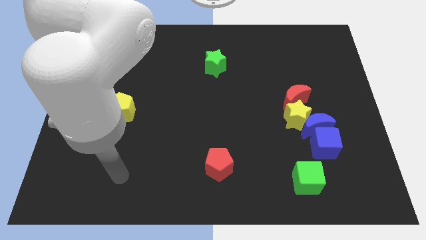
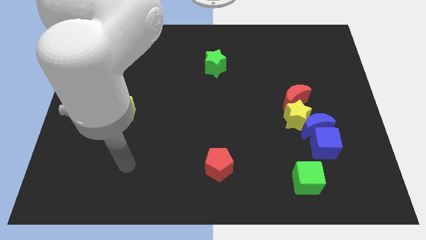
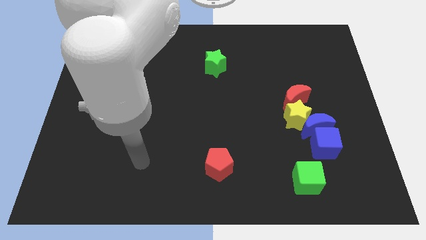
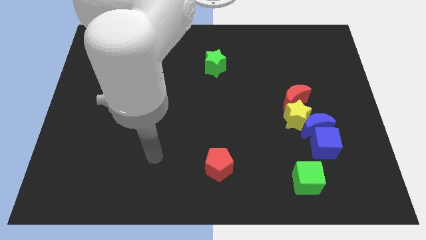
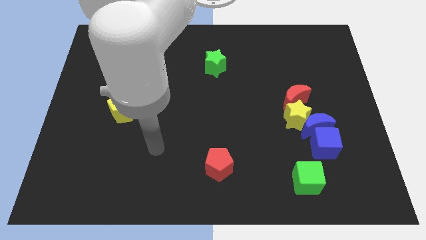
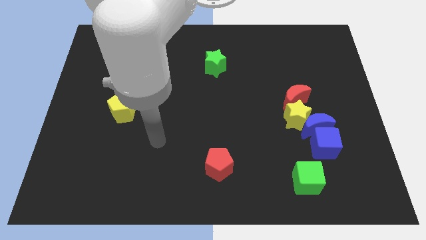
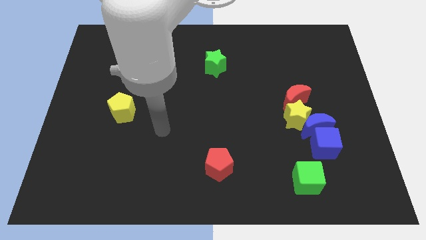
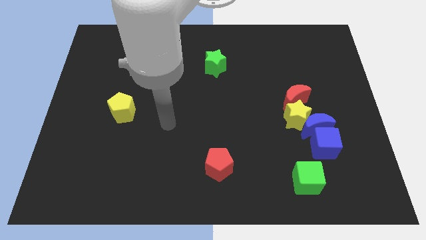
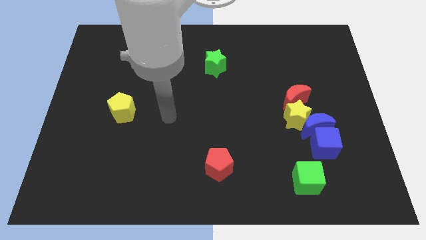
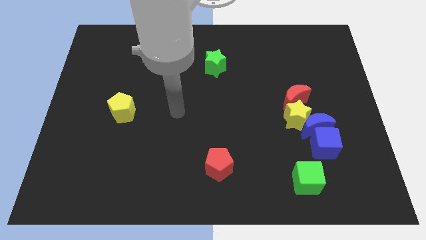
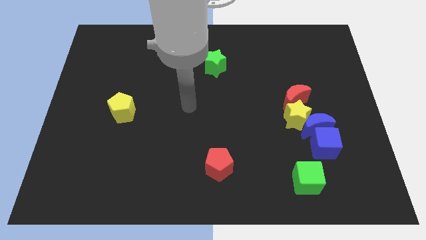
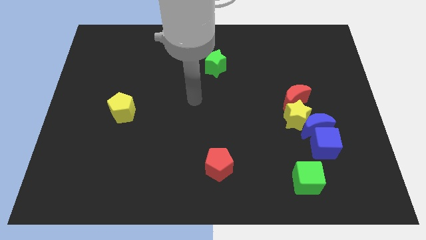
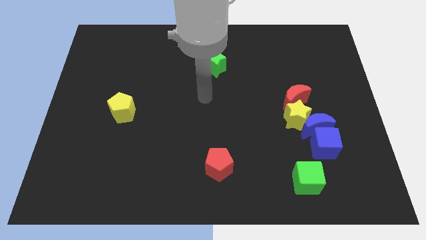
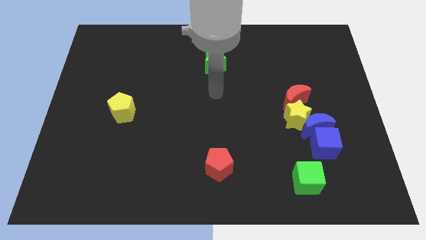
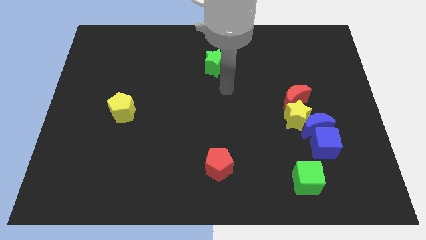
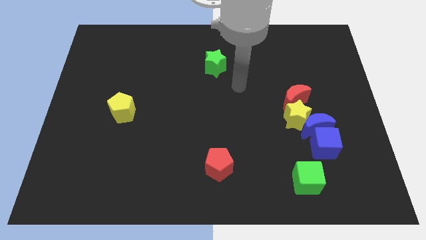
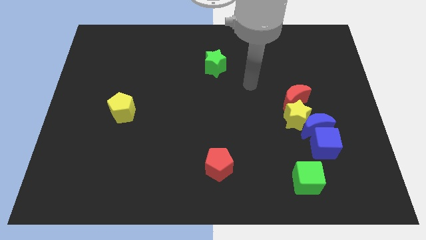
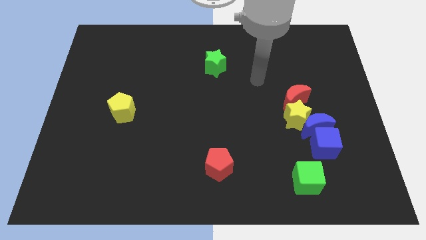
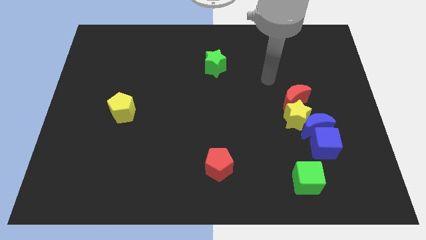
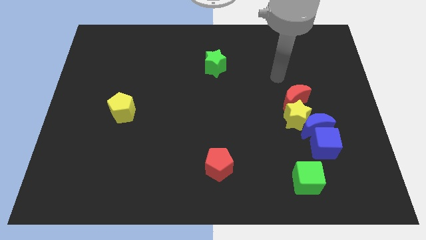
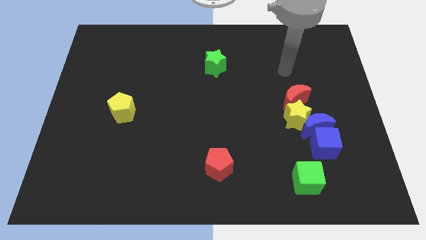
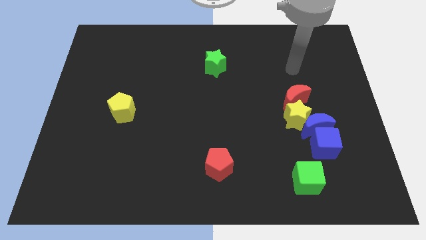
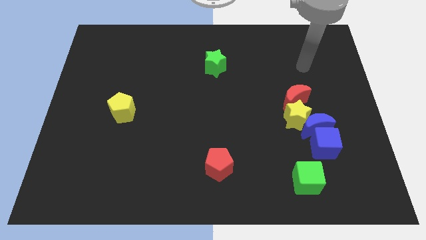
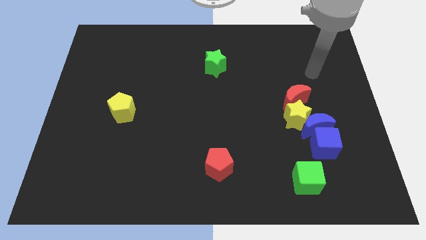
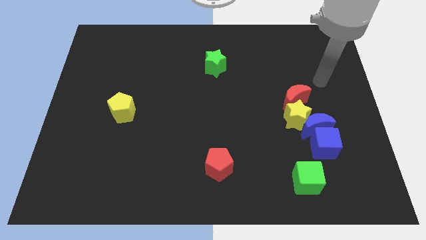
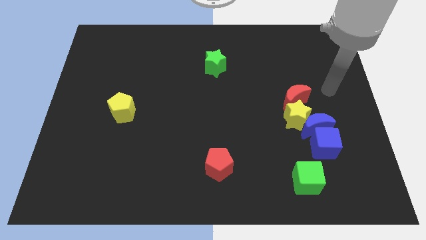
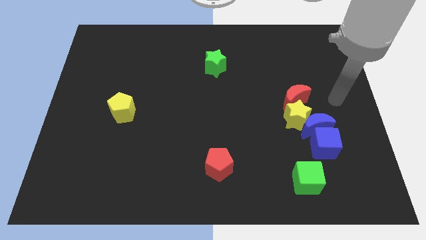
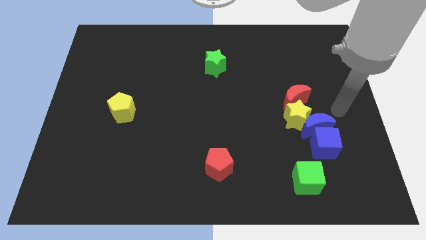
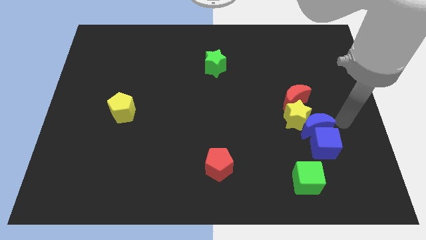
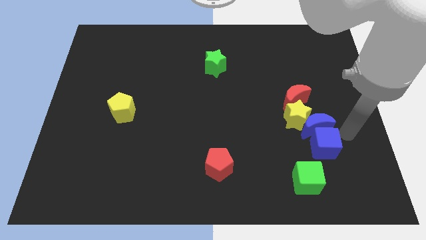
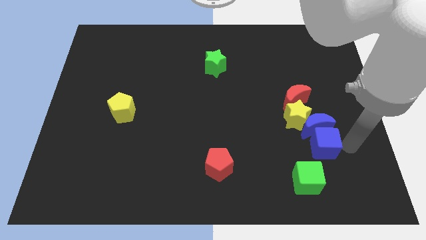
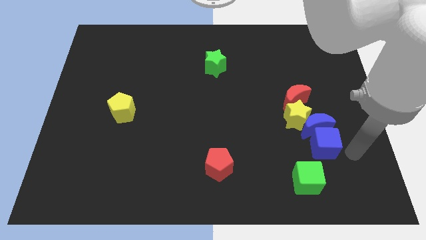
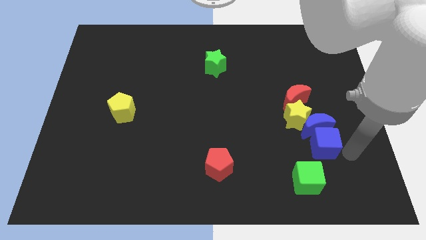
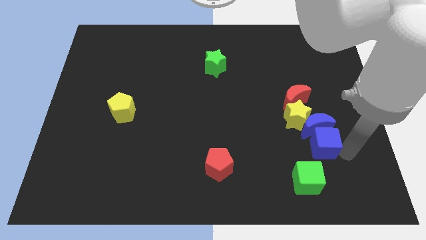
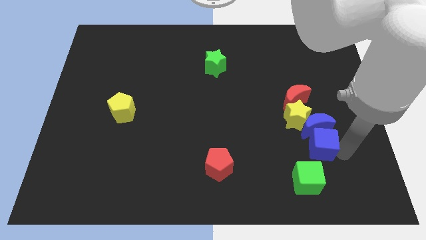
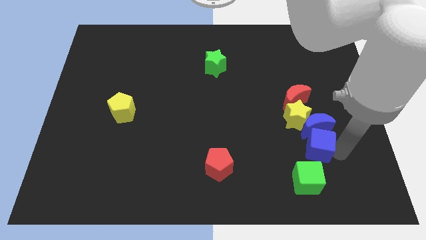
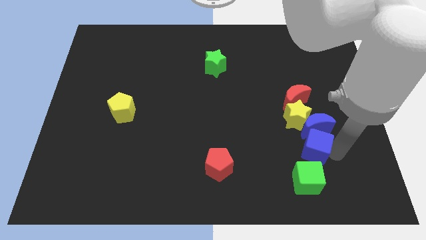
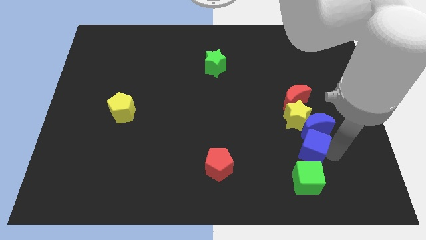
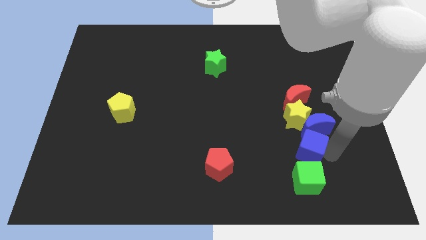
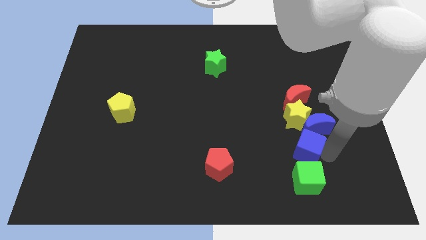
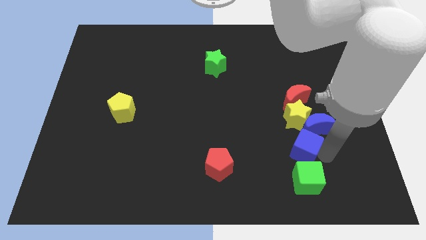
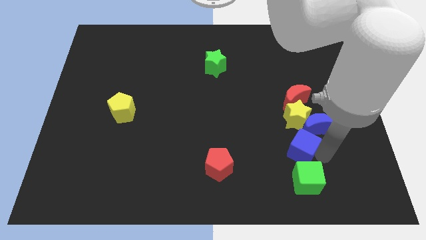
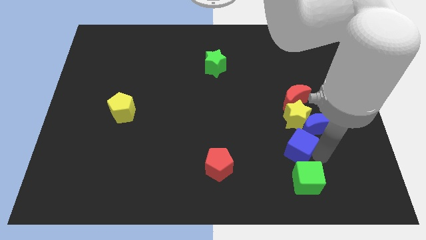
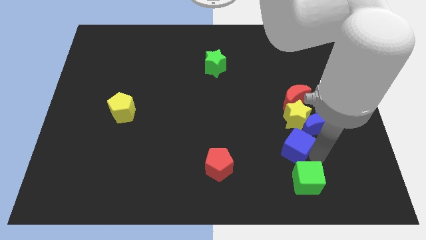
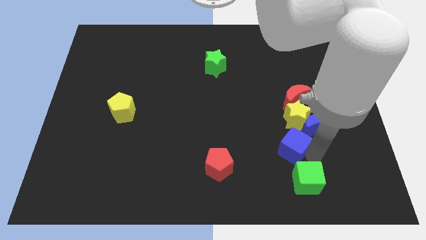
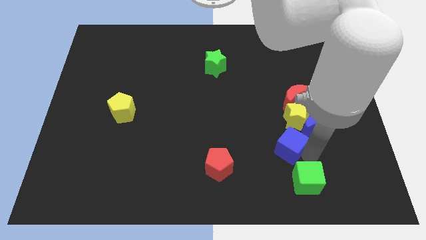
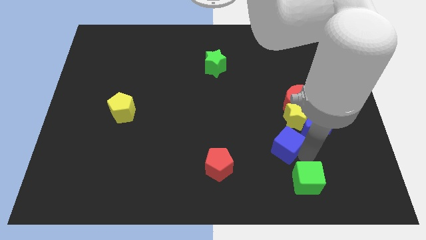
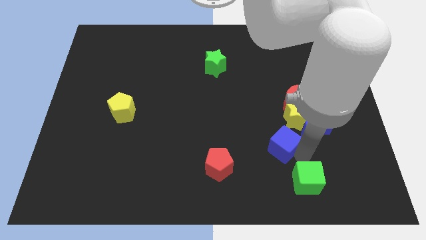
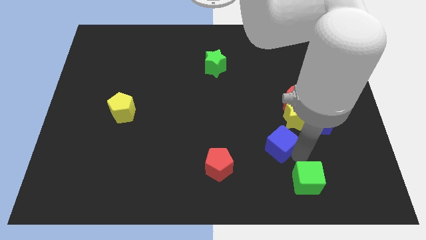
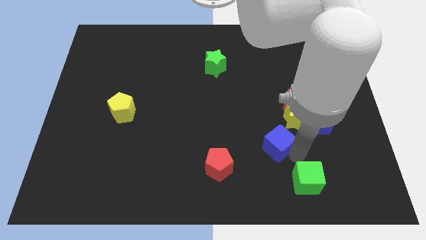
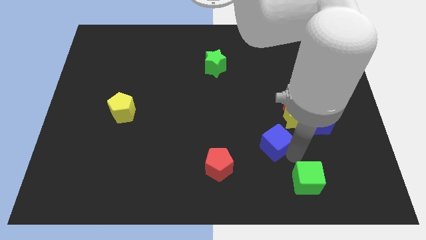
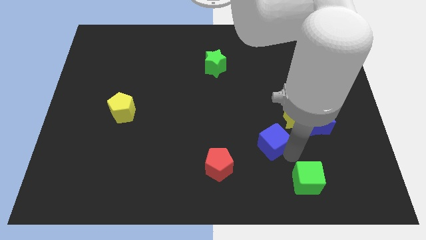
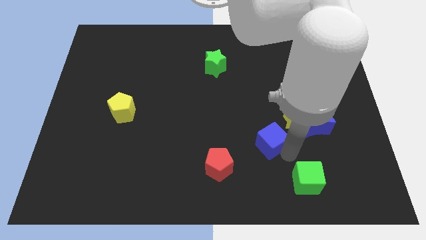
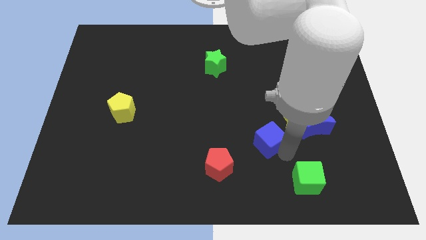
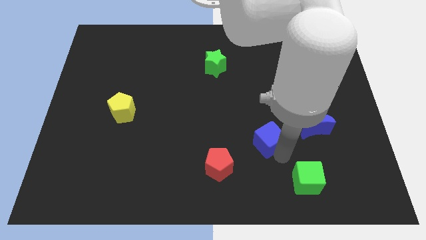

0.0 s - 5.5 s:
push the blue cube upwards and to the left diagonally a little

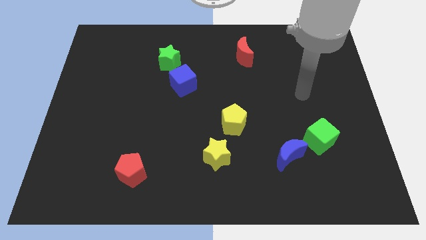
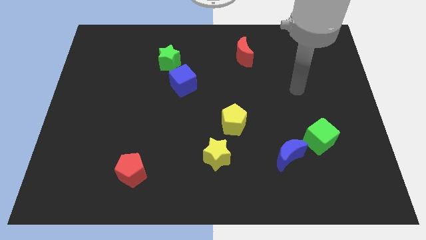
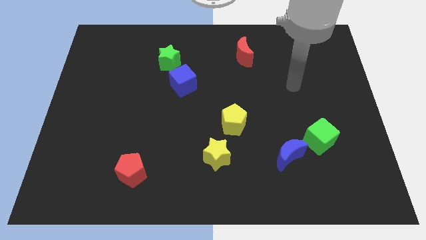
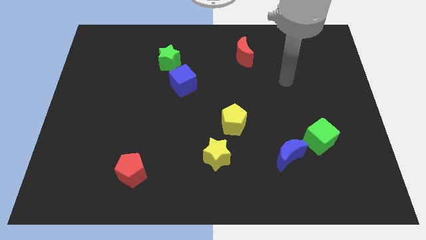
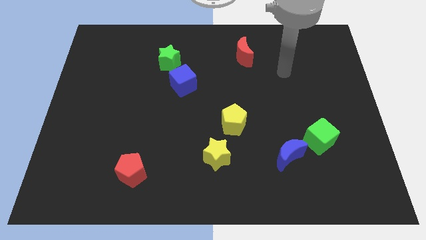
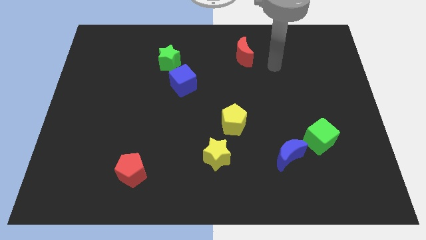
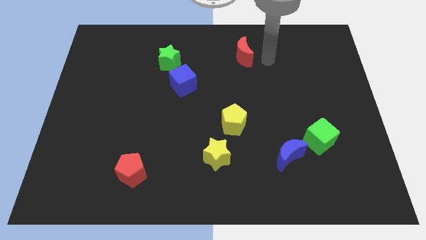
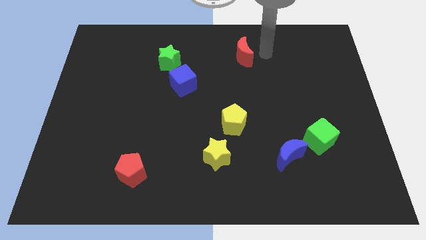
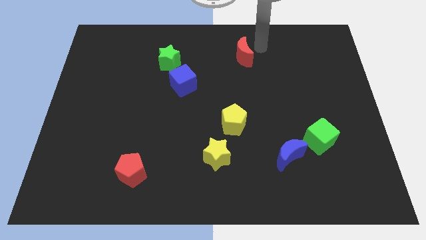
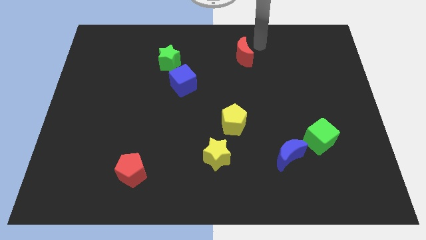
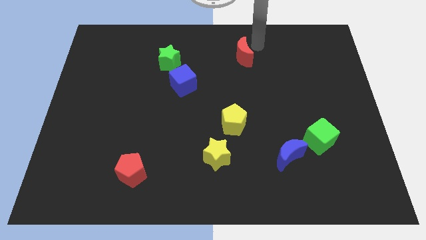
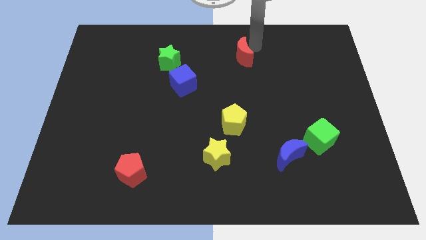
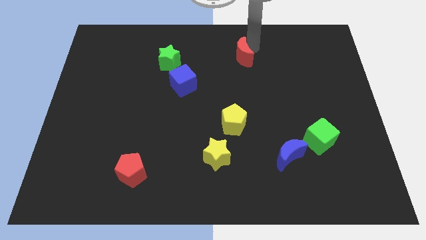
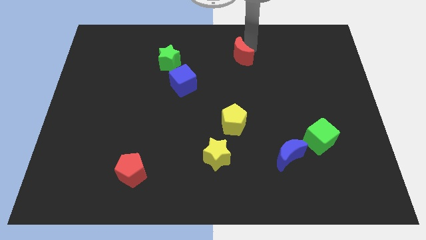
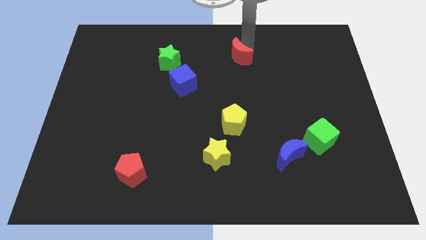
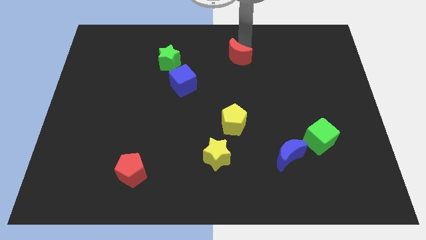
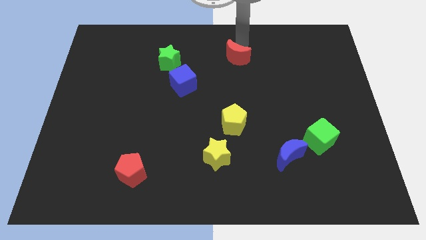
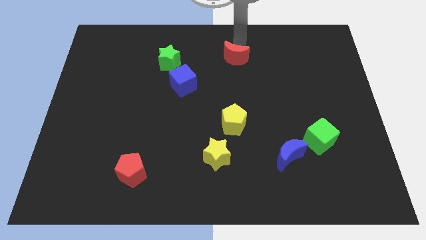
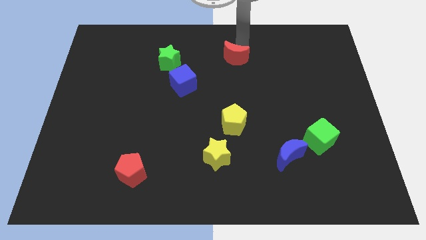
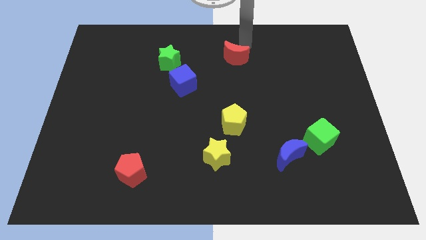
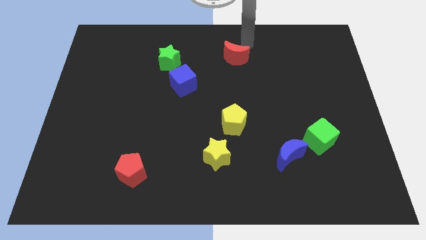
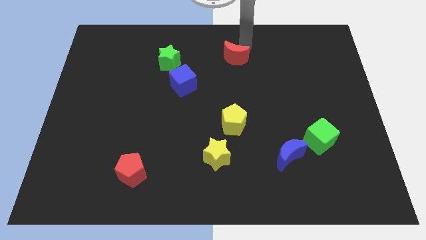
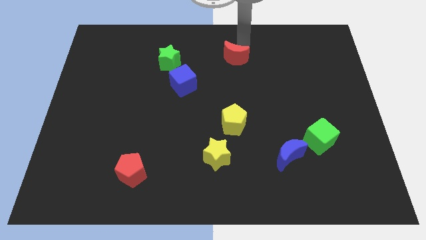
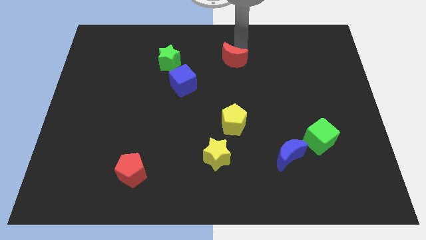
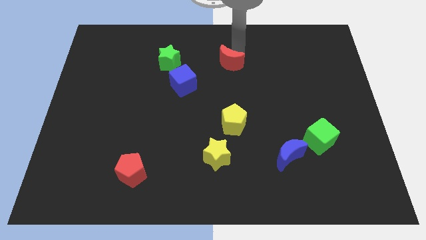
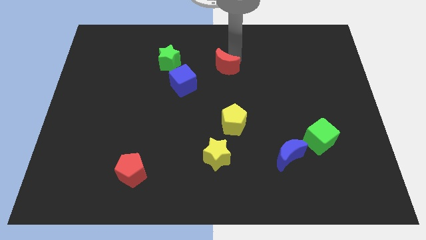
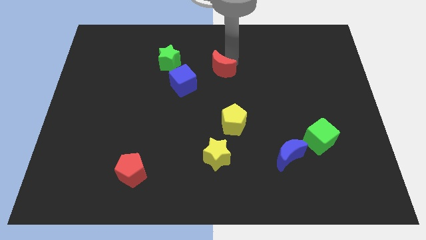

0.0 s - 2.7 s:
slightly slide the red moon down and to the left diagonally
